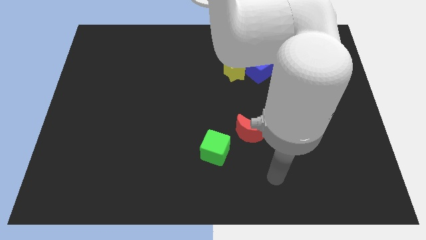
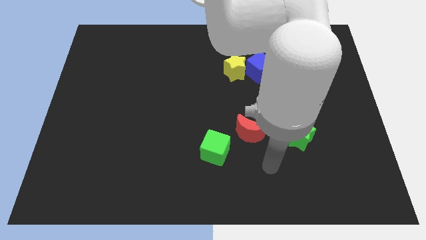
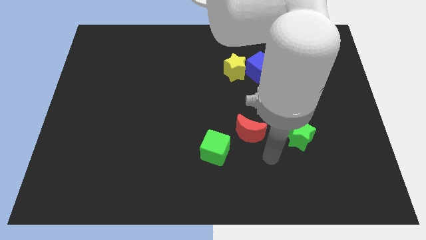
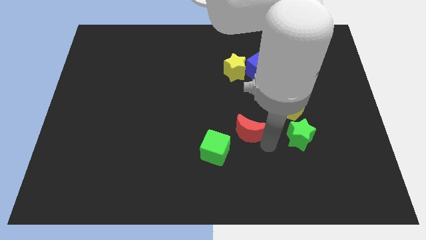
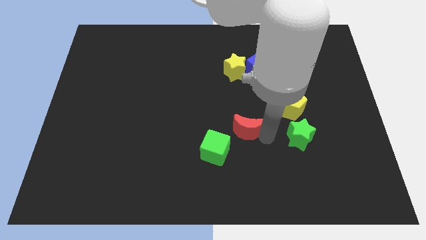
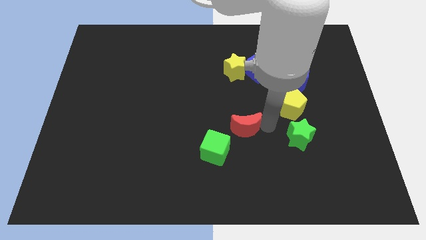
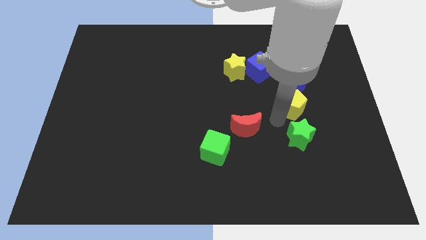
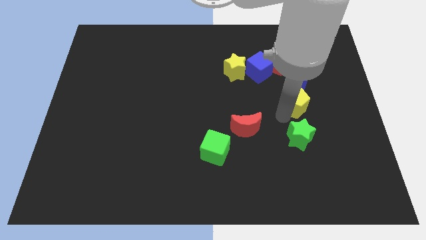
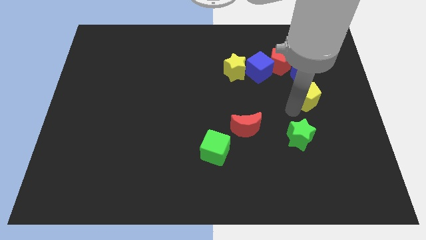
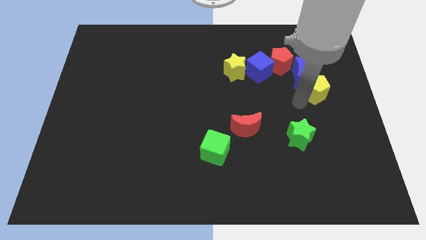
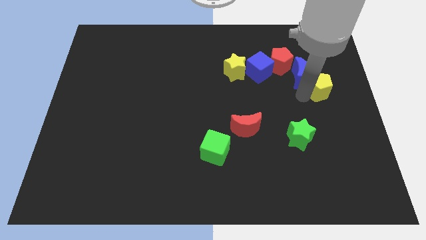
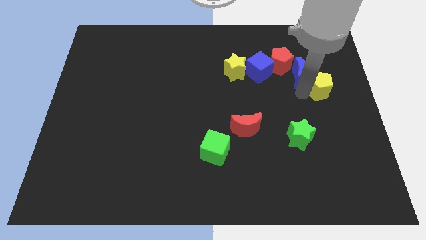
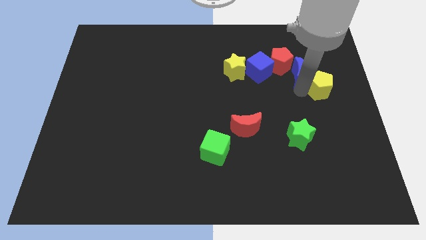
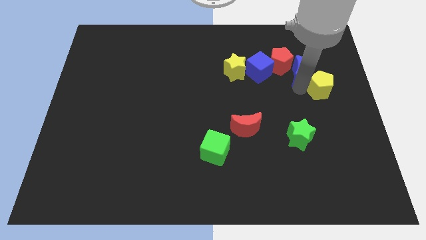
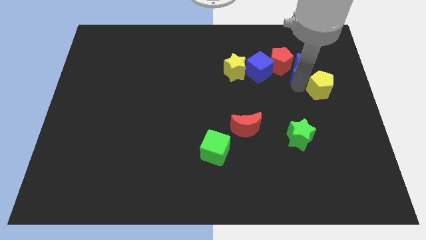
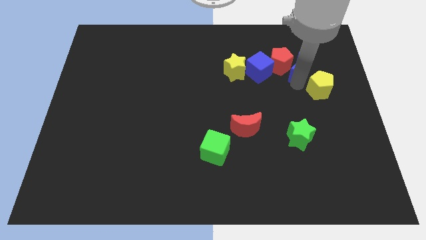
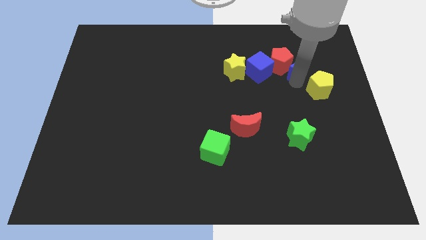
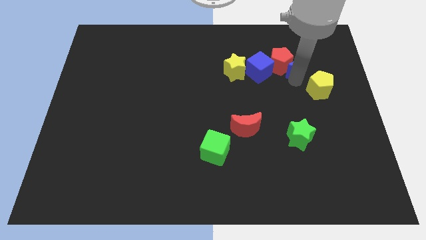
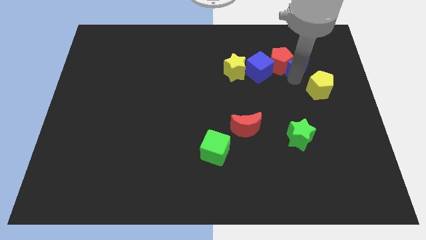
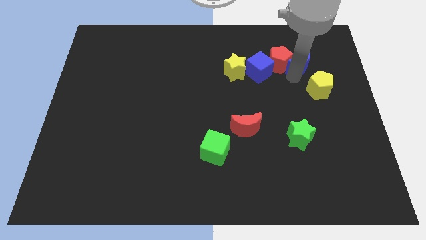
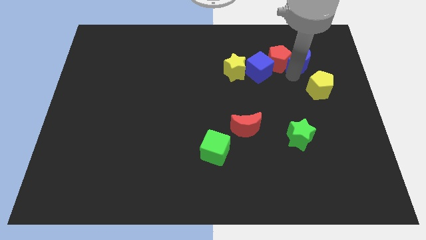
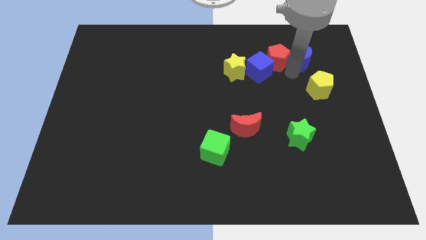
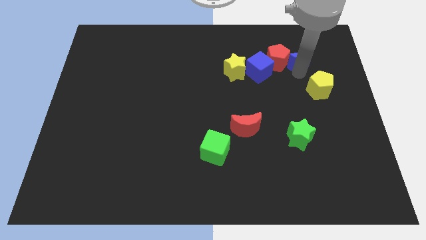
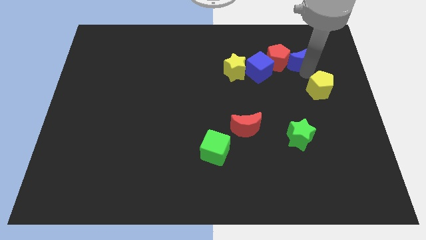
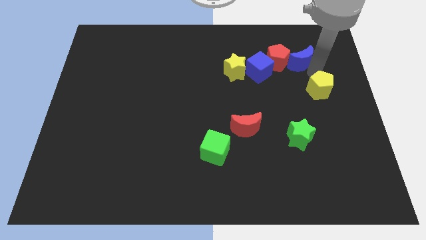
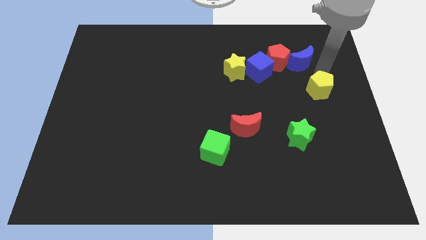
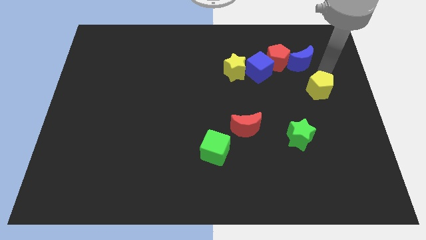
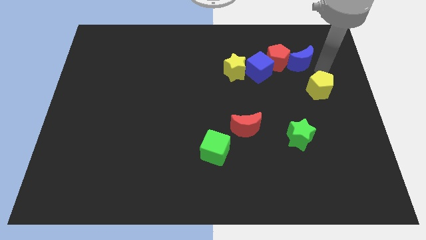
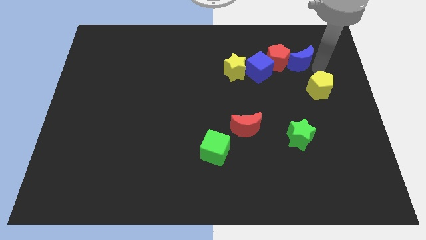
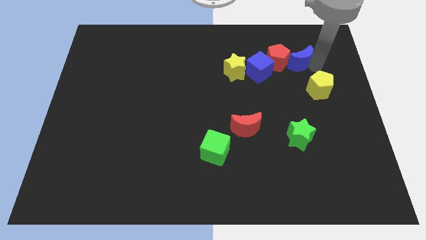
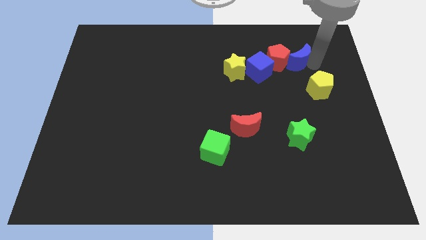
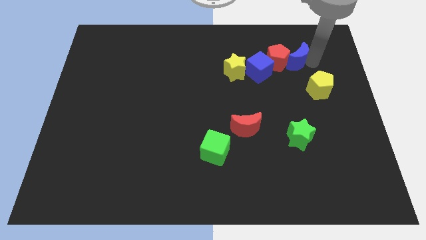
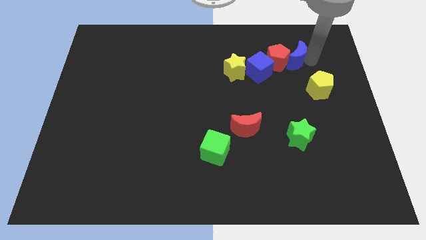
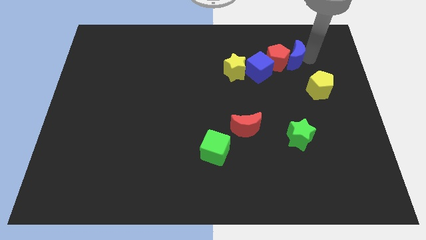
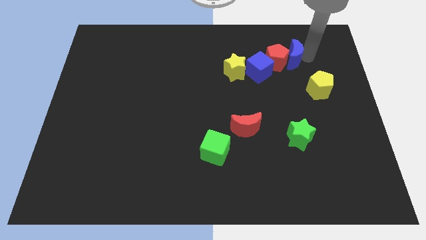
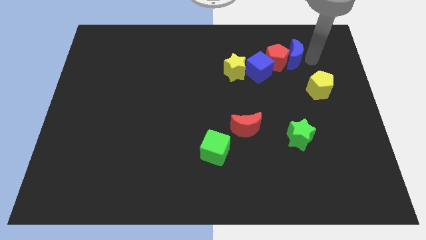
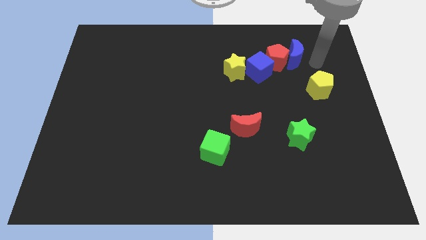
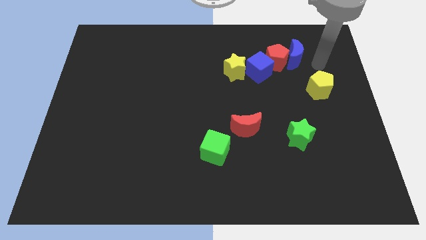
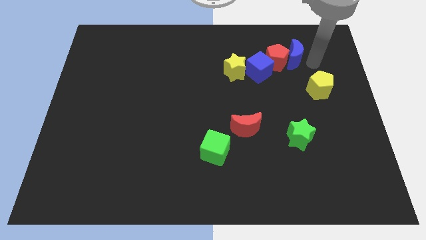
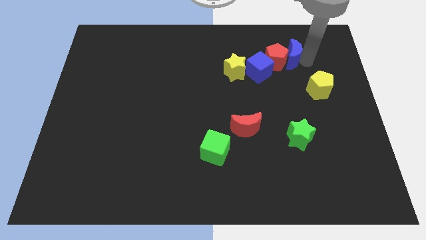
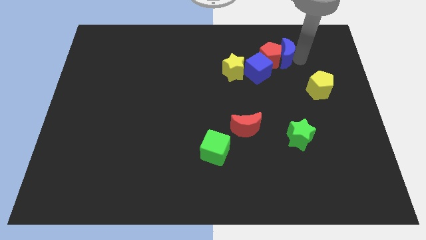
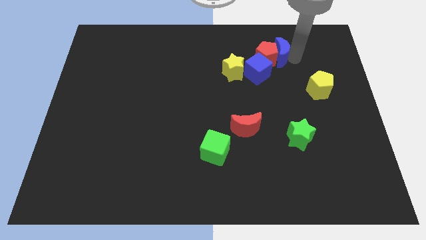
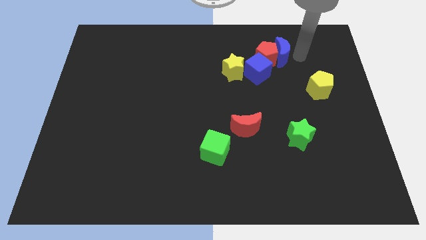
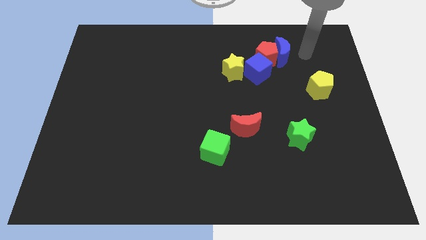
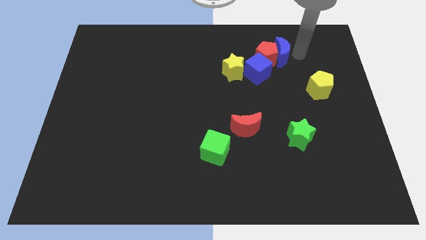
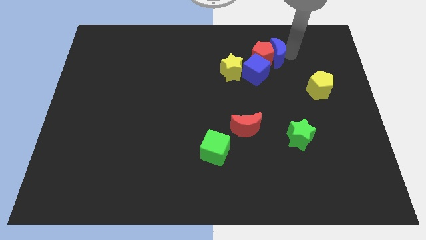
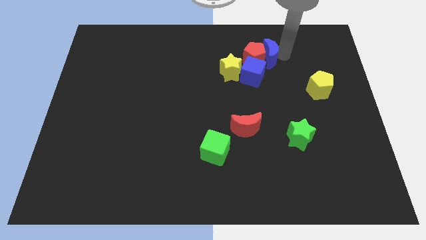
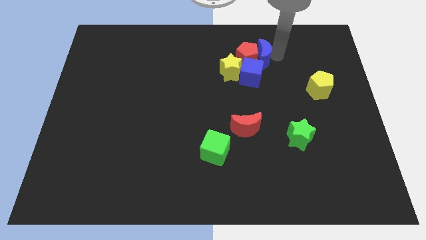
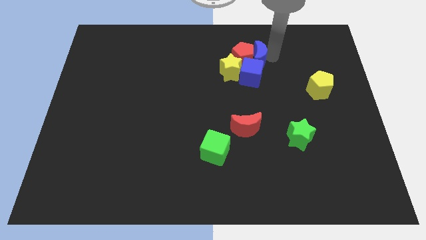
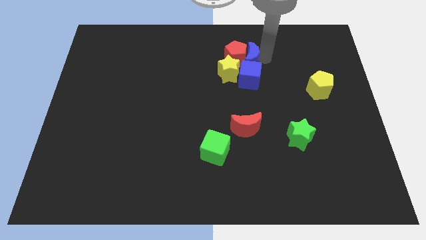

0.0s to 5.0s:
move the blue moon to the top left of the blue cube

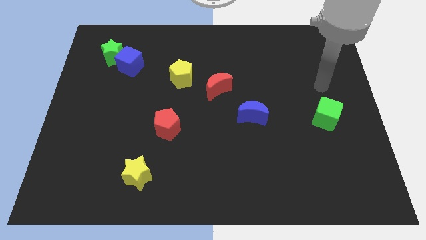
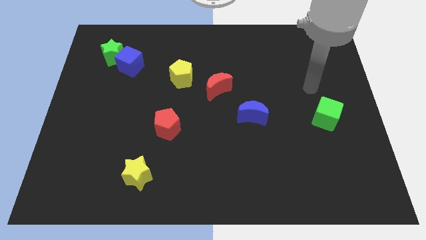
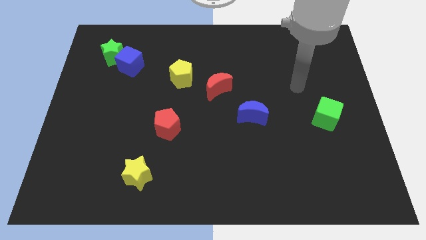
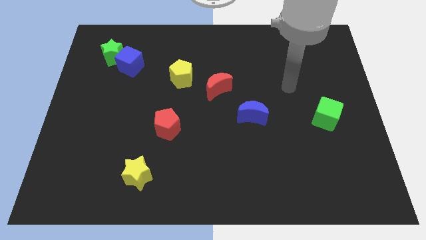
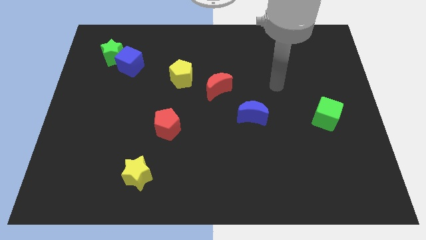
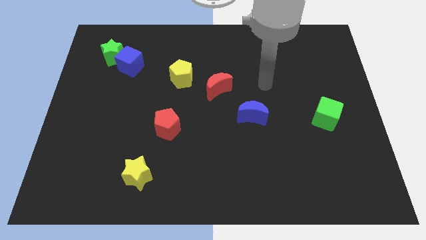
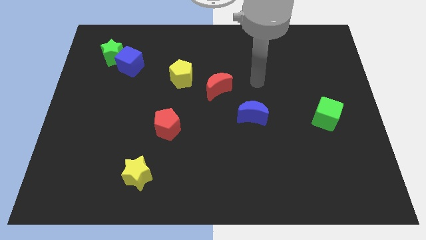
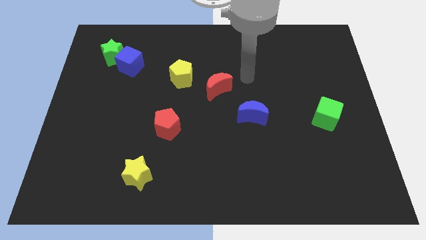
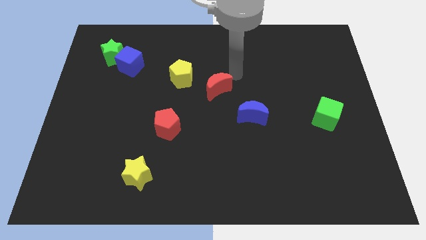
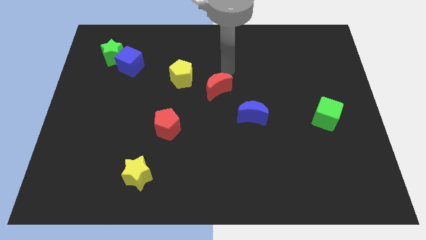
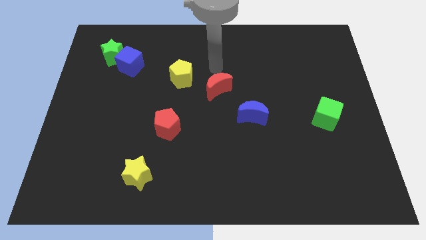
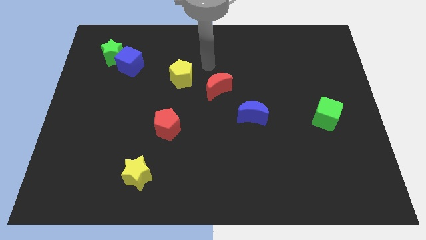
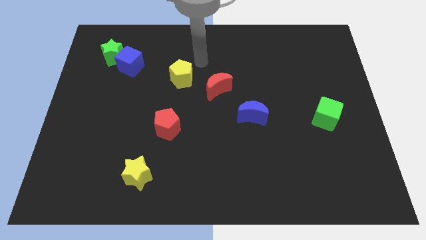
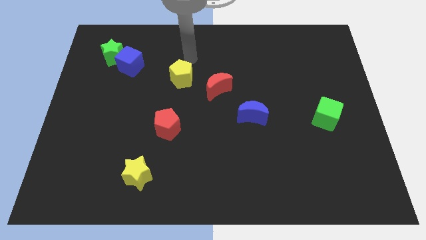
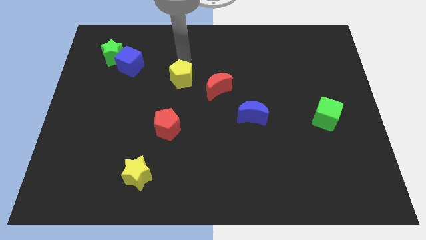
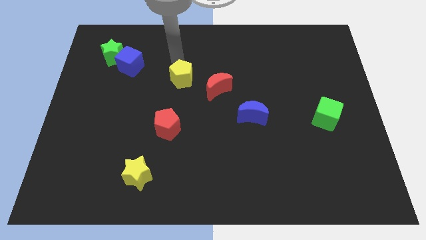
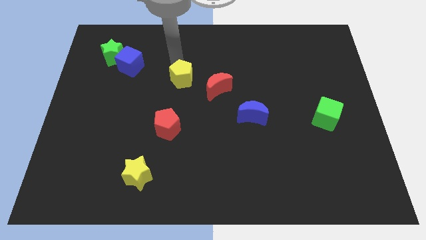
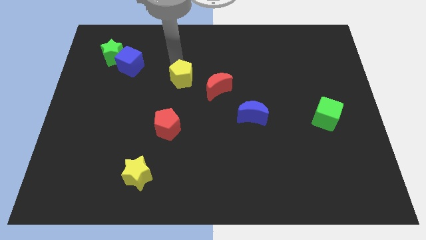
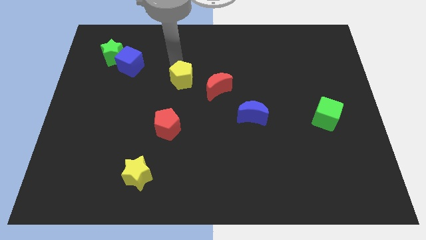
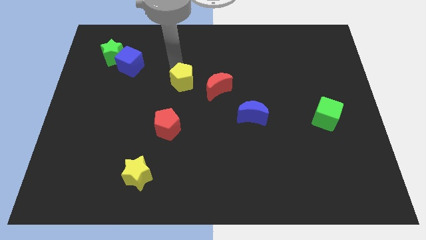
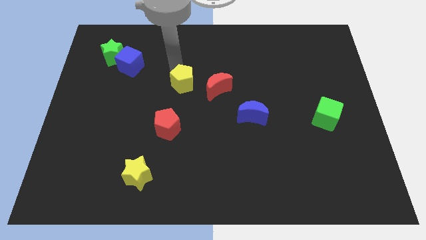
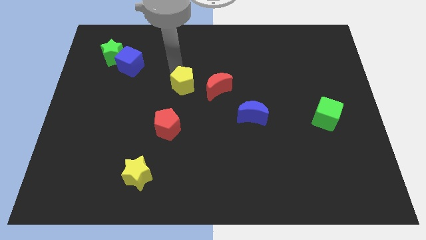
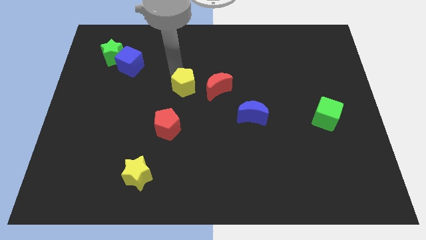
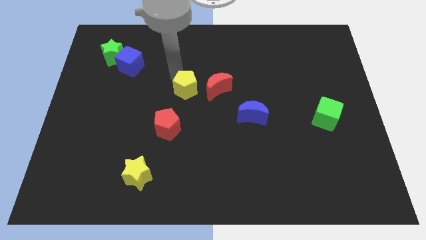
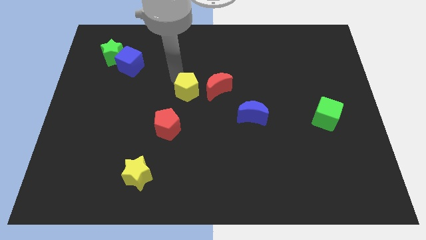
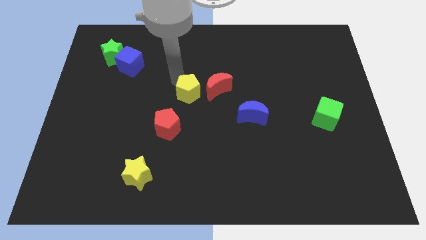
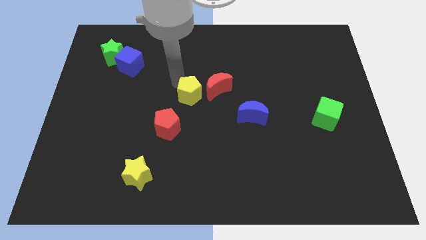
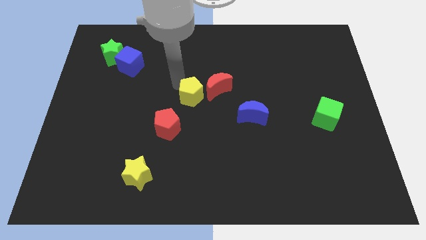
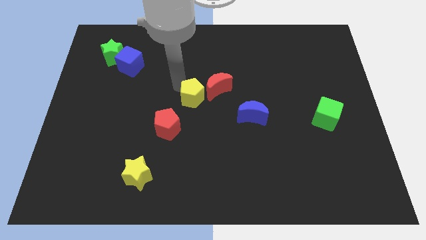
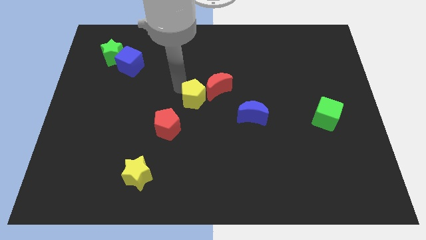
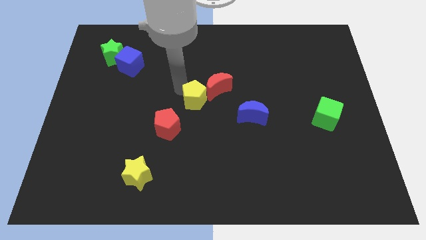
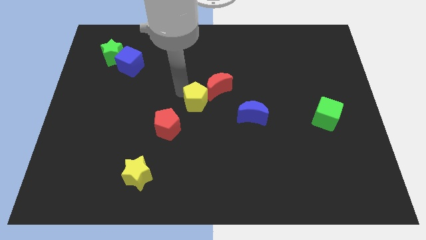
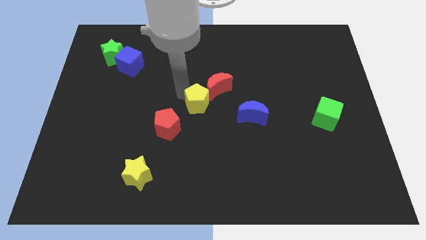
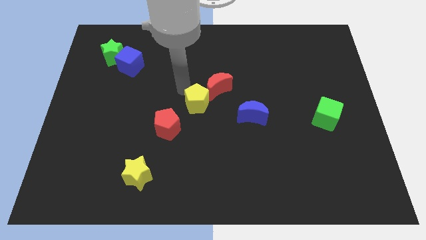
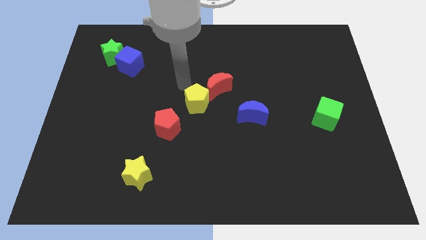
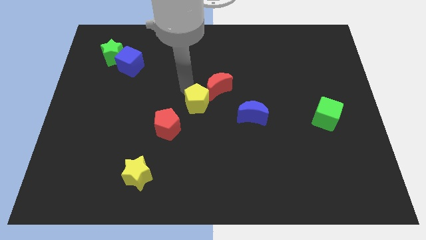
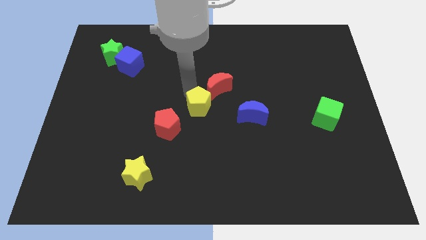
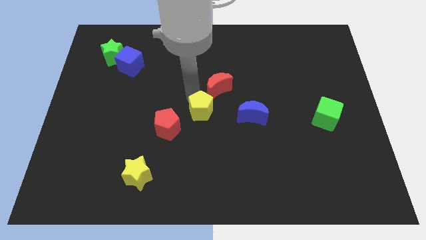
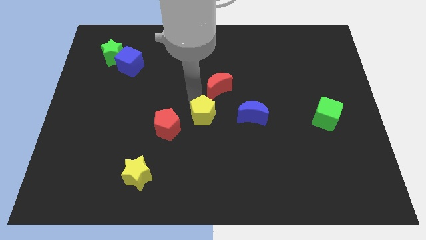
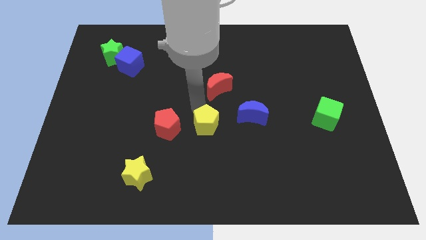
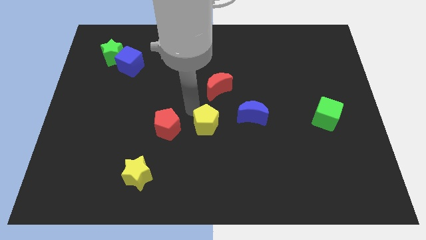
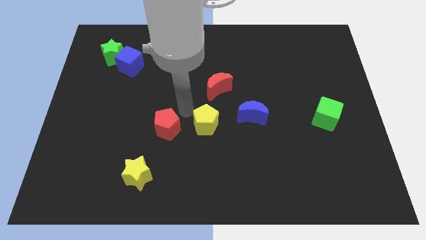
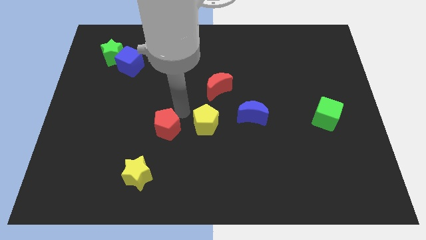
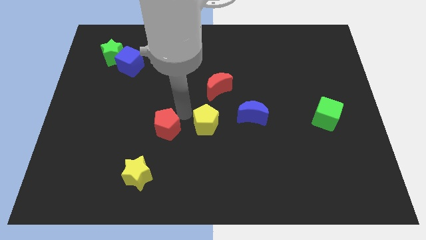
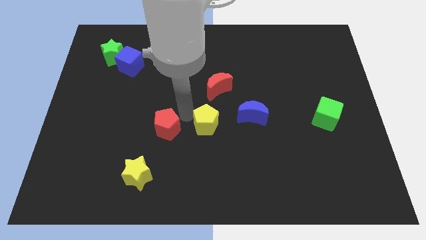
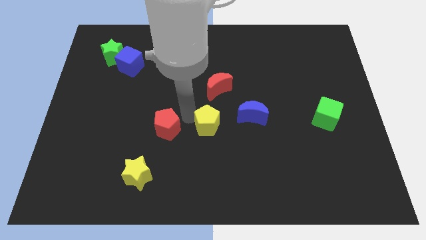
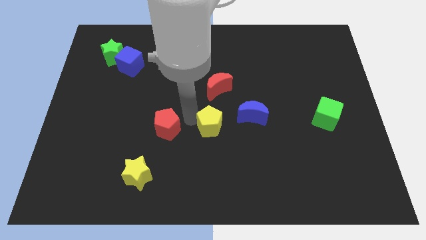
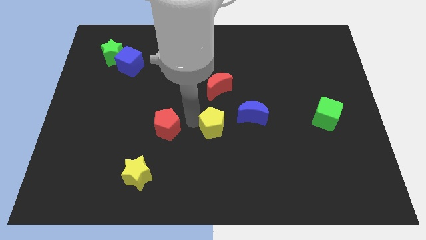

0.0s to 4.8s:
put the yellow pentagon to the bottom left of the blue moon
